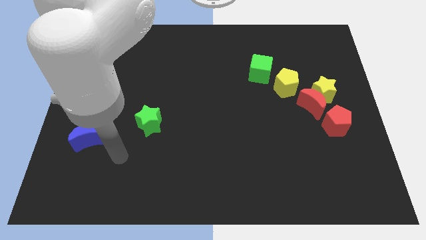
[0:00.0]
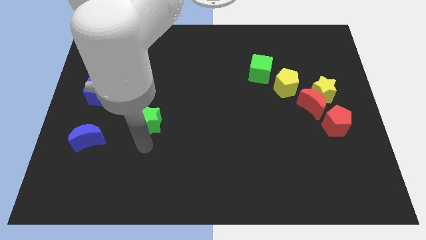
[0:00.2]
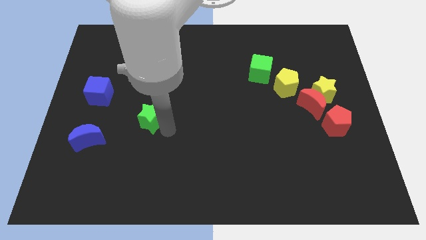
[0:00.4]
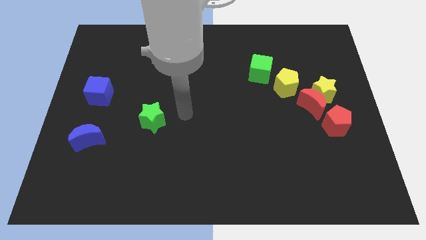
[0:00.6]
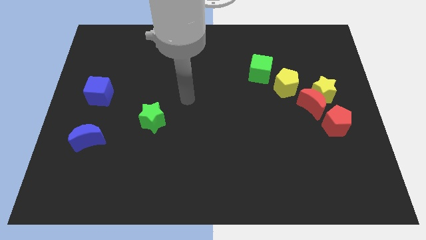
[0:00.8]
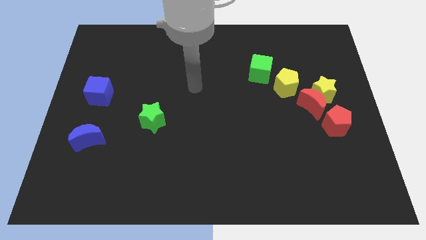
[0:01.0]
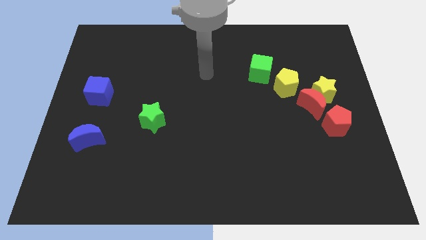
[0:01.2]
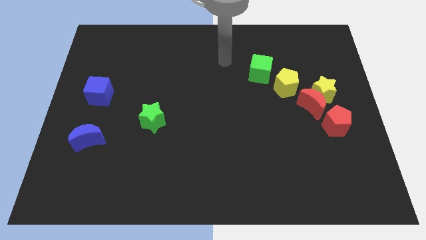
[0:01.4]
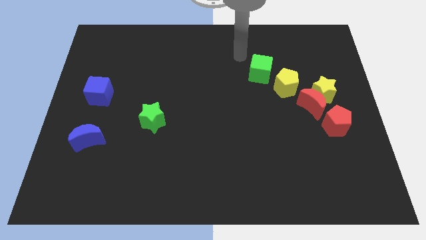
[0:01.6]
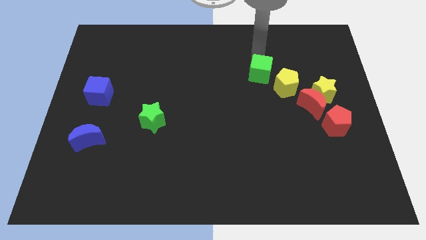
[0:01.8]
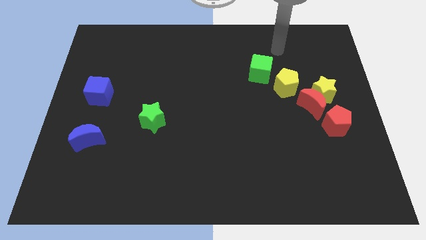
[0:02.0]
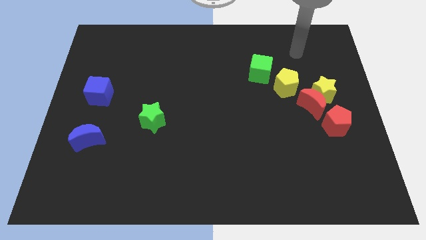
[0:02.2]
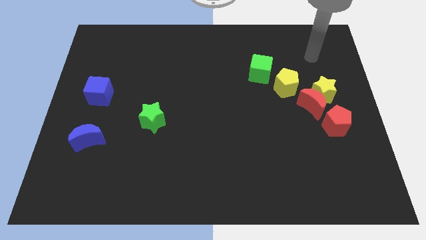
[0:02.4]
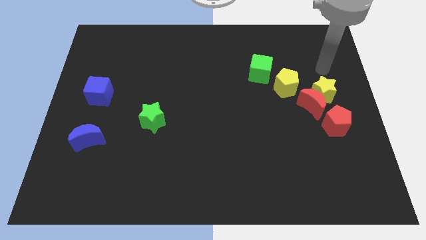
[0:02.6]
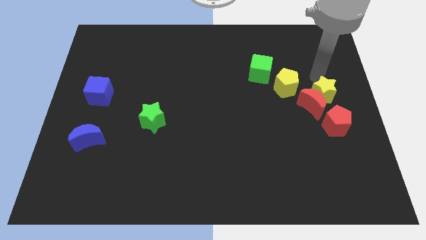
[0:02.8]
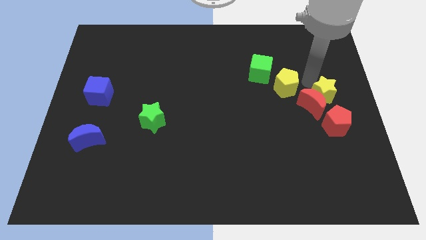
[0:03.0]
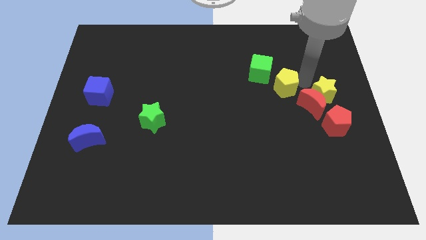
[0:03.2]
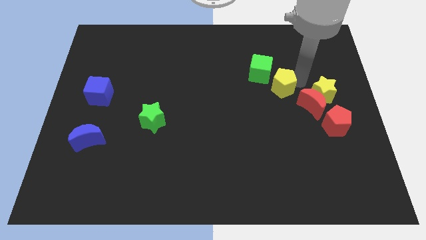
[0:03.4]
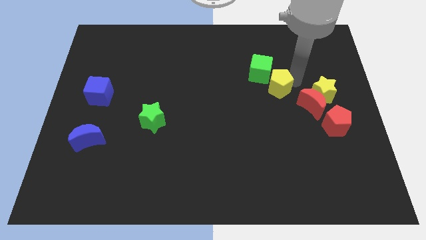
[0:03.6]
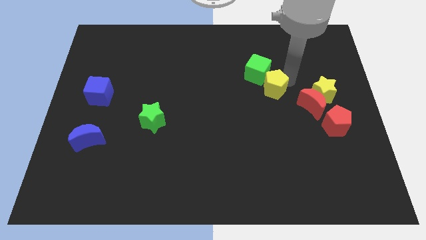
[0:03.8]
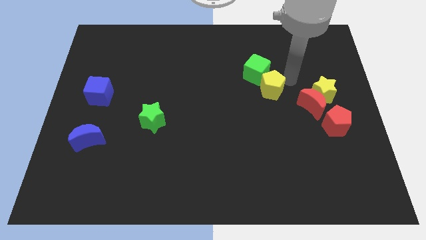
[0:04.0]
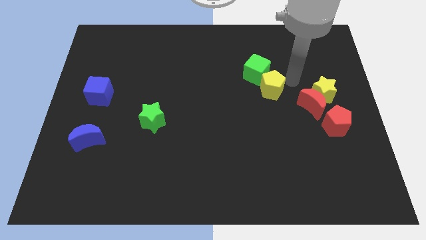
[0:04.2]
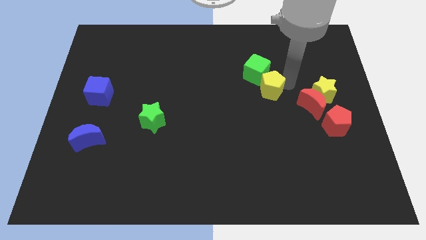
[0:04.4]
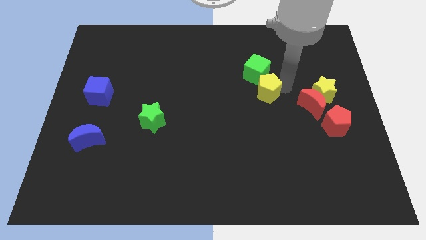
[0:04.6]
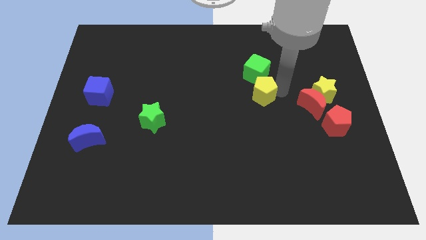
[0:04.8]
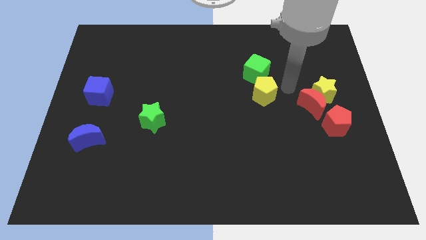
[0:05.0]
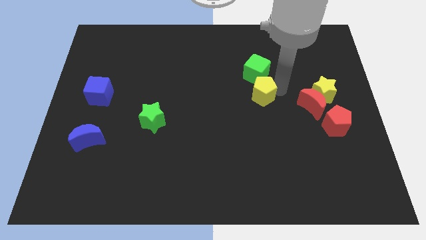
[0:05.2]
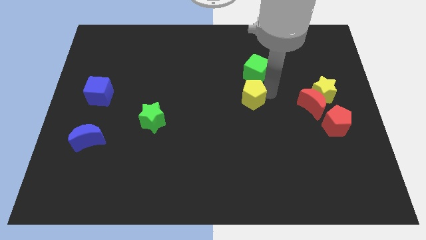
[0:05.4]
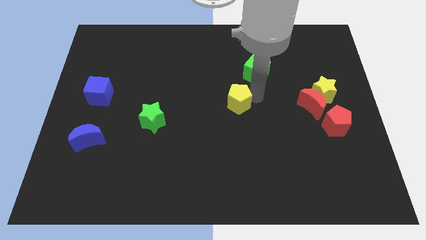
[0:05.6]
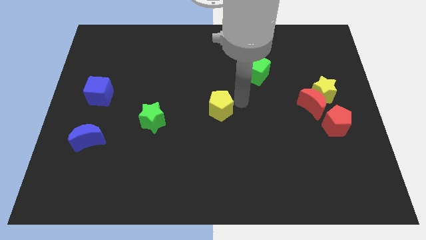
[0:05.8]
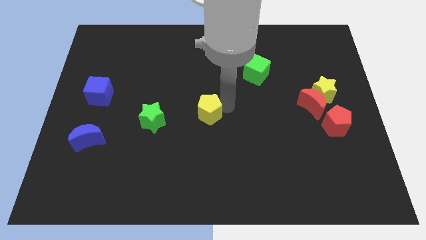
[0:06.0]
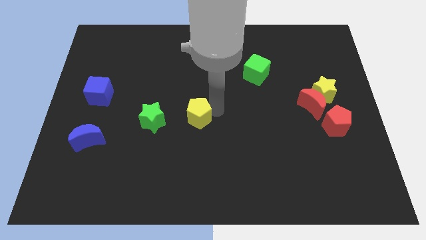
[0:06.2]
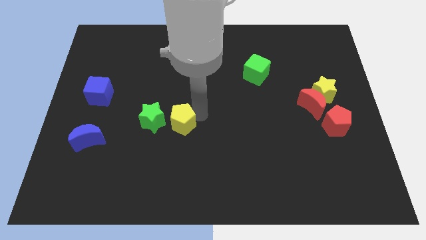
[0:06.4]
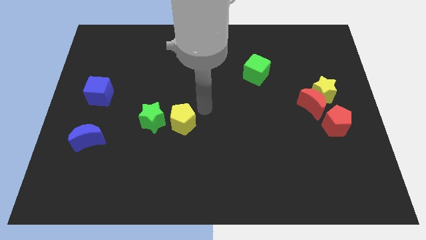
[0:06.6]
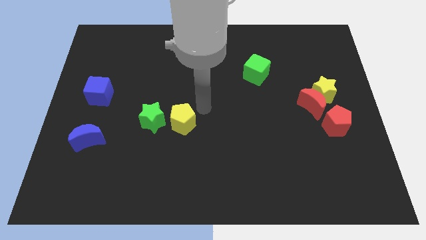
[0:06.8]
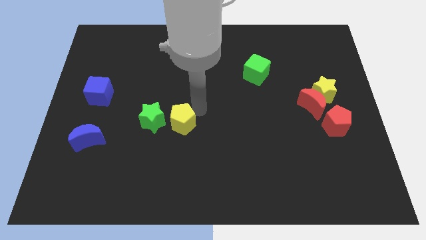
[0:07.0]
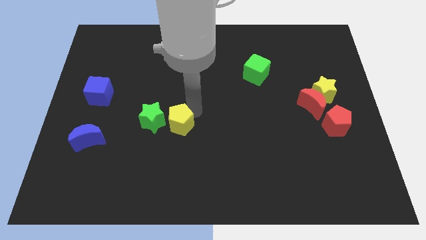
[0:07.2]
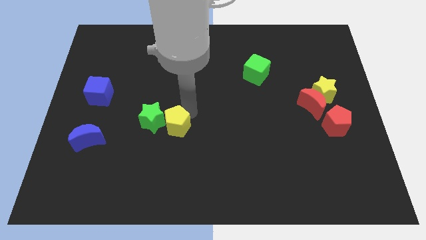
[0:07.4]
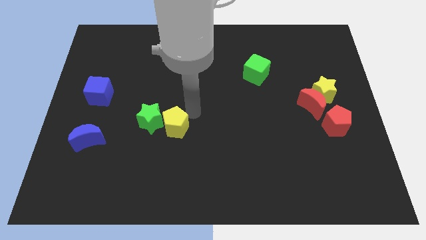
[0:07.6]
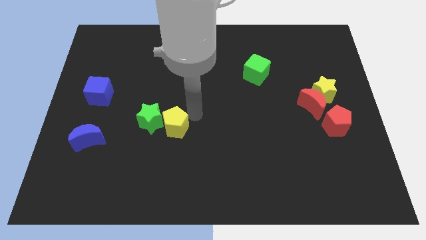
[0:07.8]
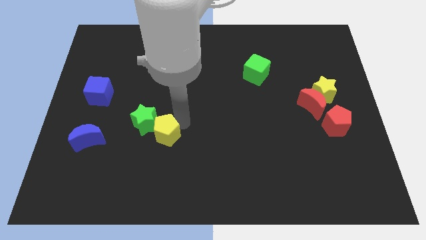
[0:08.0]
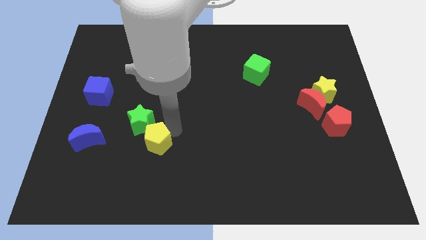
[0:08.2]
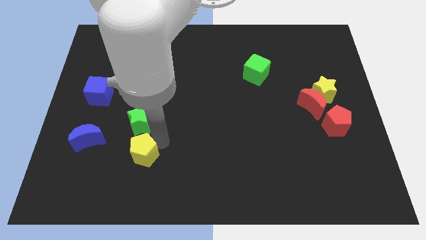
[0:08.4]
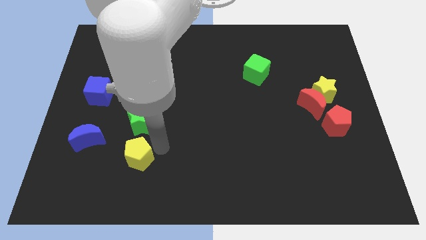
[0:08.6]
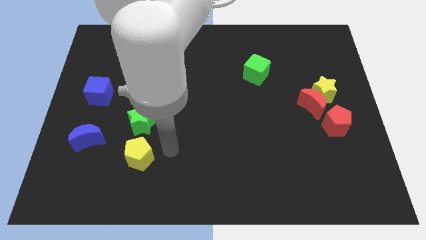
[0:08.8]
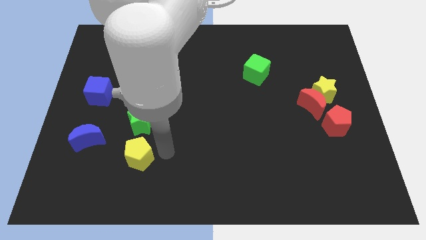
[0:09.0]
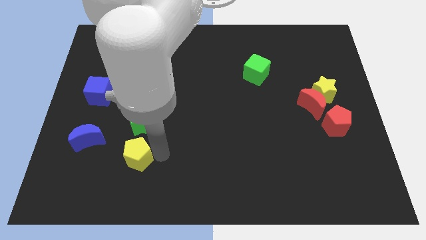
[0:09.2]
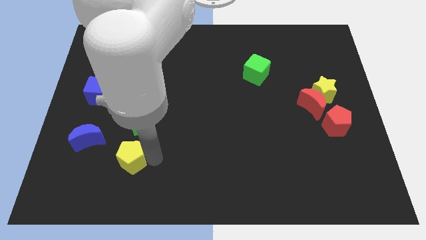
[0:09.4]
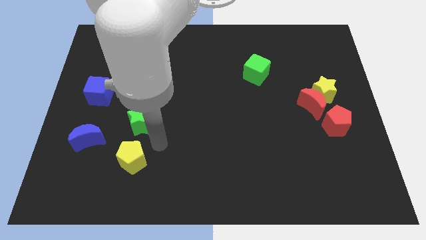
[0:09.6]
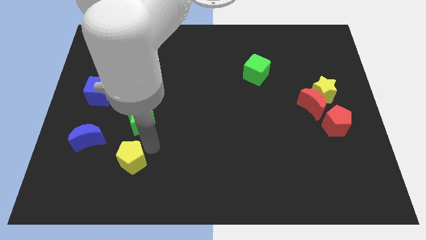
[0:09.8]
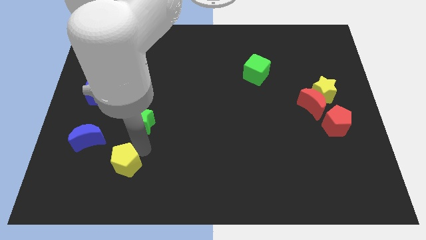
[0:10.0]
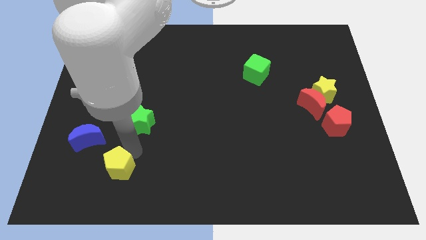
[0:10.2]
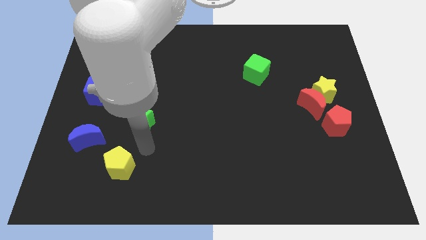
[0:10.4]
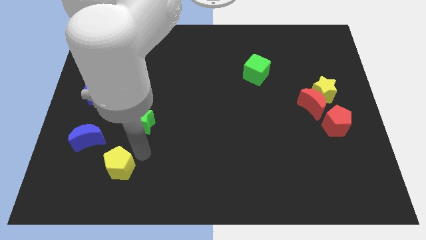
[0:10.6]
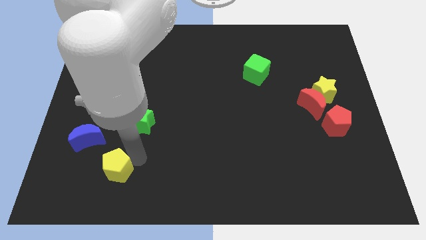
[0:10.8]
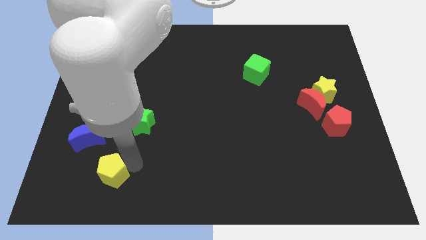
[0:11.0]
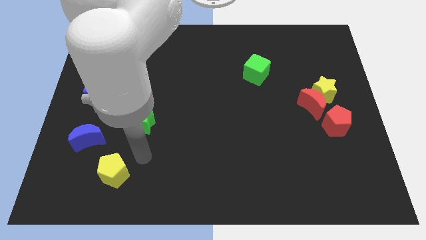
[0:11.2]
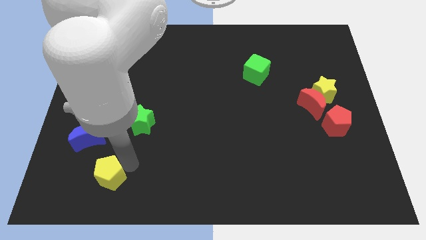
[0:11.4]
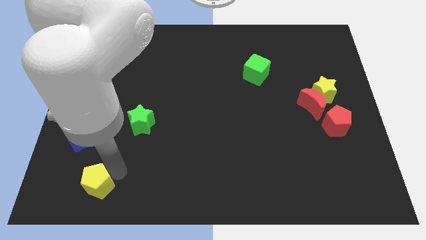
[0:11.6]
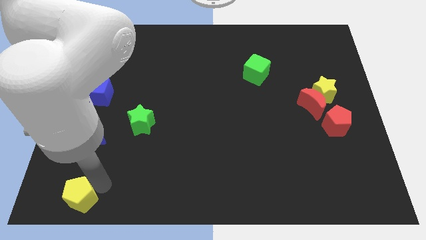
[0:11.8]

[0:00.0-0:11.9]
slide the yellow pentagon to the bottom left corner

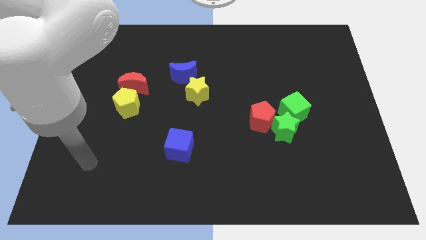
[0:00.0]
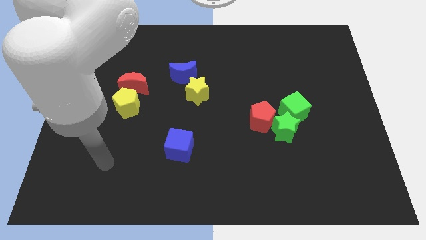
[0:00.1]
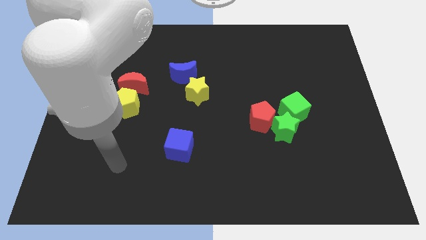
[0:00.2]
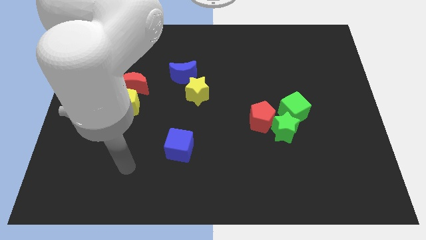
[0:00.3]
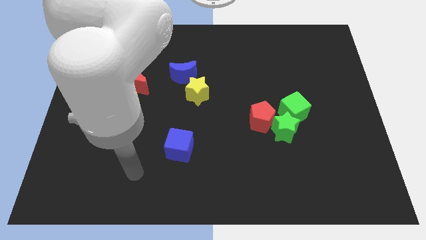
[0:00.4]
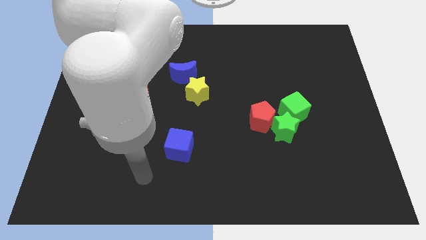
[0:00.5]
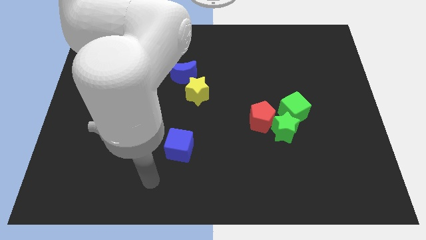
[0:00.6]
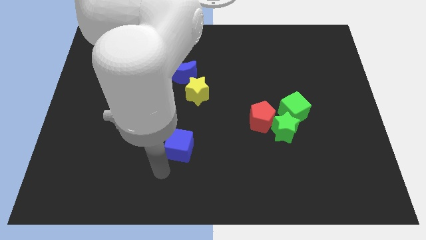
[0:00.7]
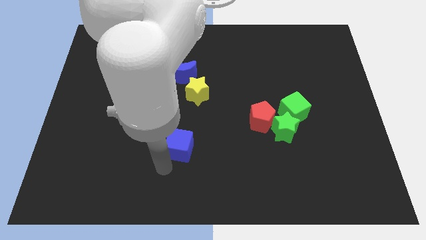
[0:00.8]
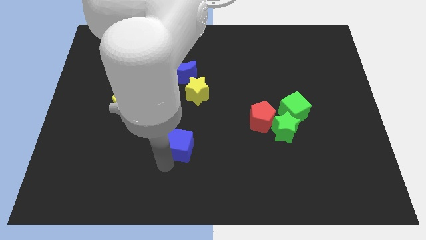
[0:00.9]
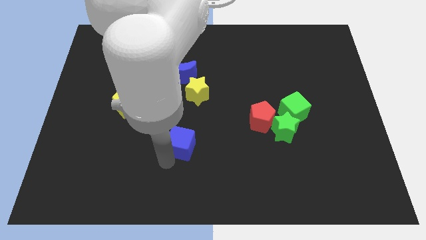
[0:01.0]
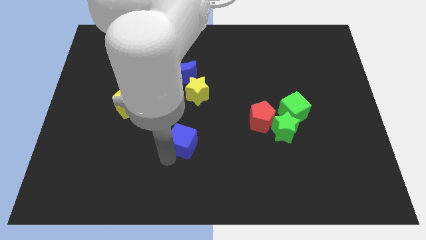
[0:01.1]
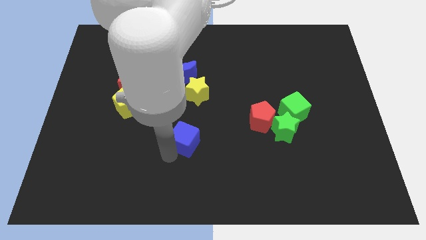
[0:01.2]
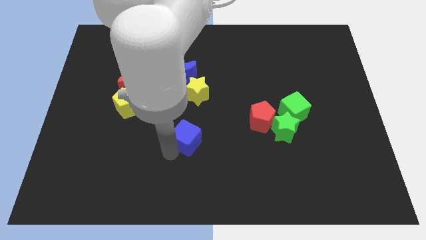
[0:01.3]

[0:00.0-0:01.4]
put the blue cube to the middle
